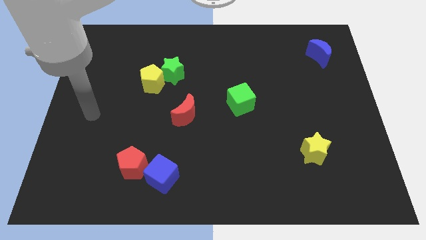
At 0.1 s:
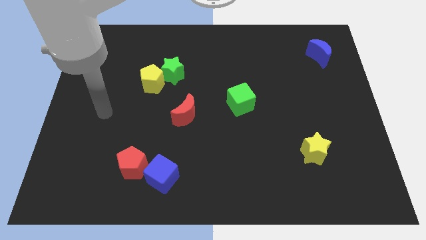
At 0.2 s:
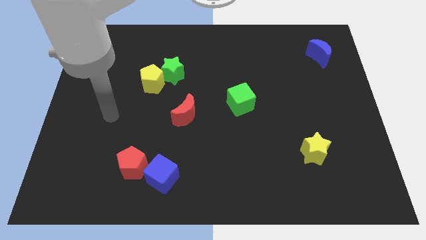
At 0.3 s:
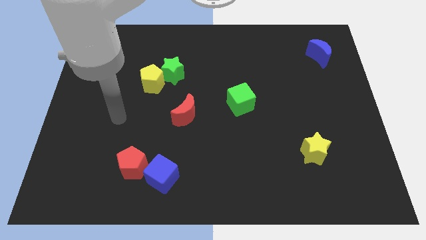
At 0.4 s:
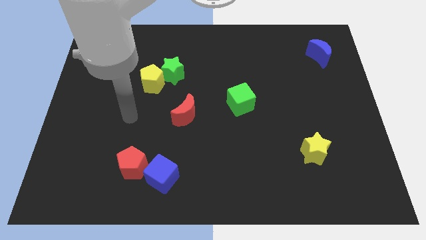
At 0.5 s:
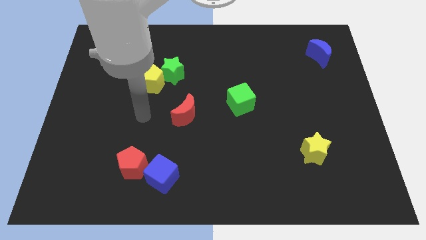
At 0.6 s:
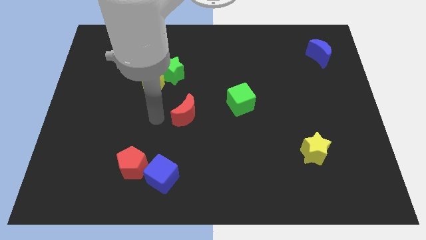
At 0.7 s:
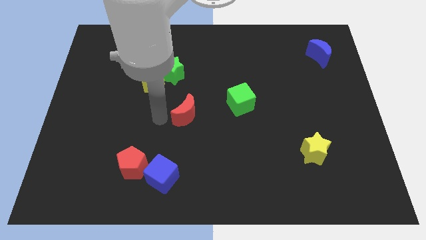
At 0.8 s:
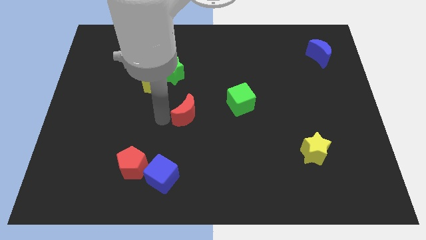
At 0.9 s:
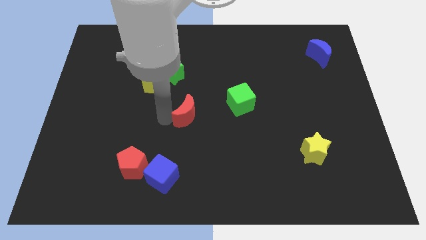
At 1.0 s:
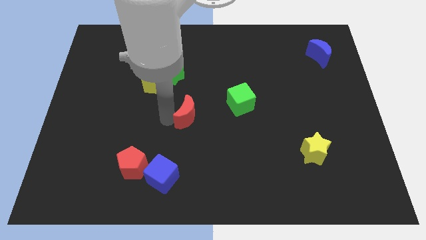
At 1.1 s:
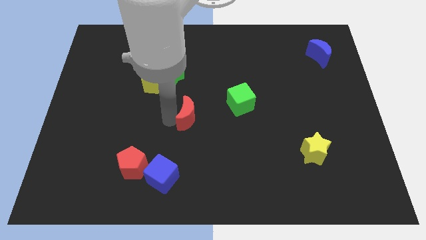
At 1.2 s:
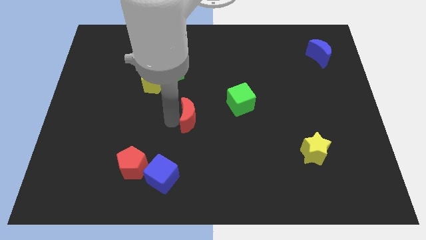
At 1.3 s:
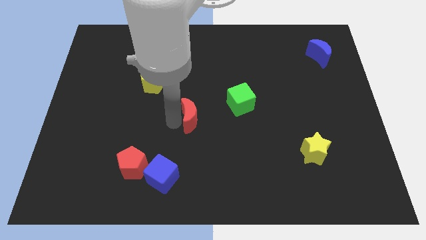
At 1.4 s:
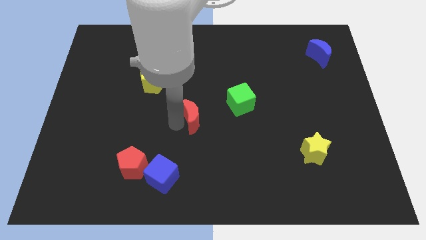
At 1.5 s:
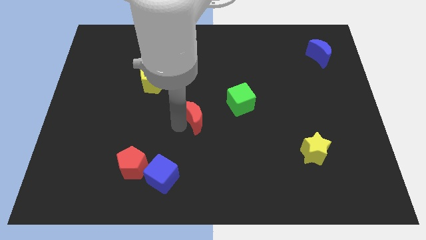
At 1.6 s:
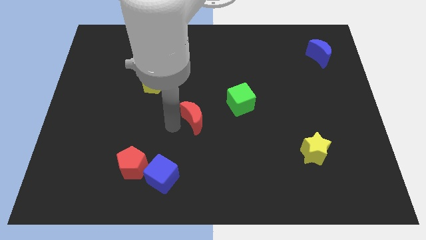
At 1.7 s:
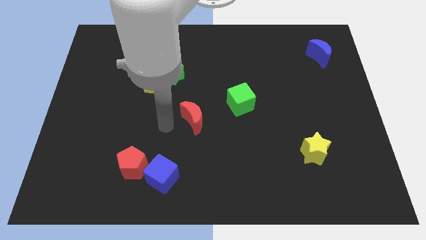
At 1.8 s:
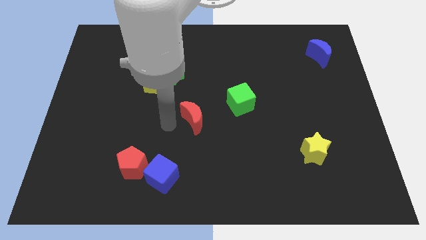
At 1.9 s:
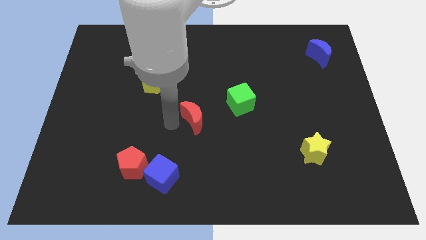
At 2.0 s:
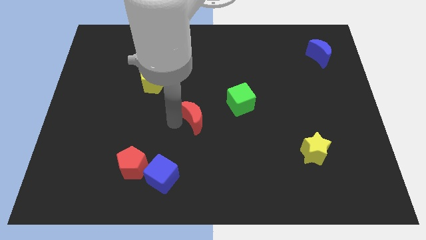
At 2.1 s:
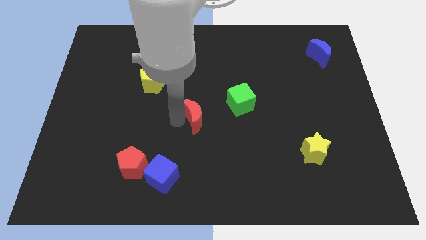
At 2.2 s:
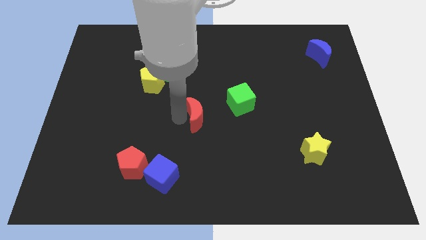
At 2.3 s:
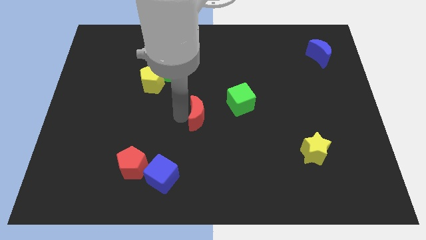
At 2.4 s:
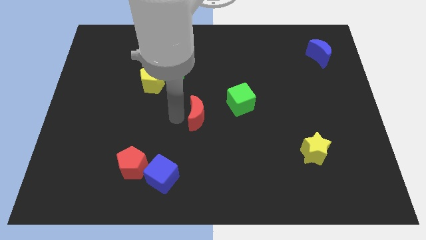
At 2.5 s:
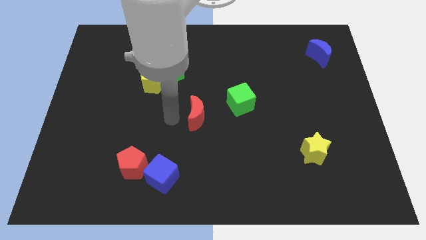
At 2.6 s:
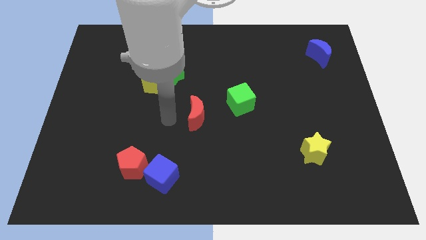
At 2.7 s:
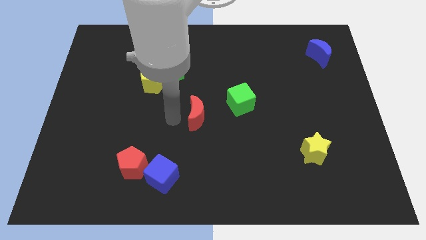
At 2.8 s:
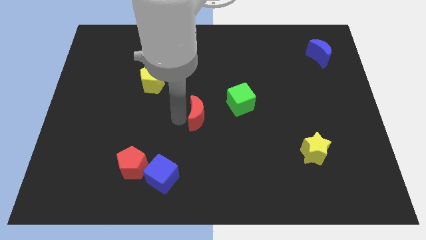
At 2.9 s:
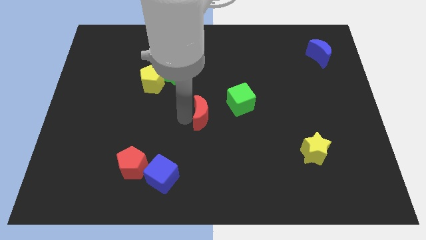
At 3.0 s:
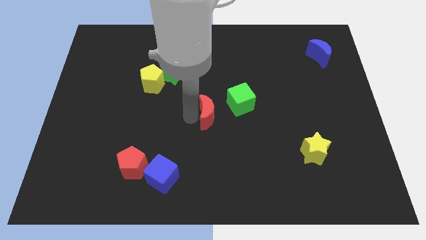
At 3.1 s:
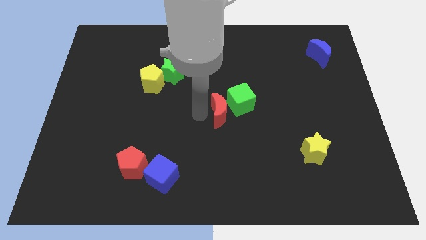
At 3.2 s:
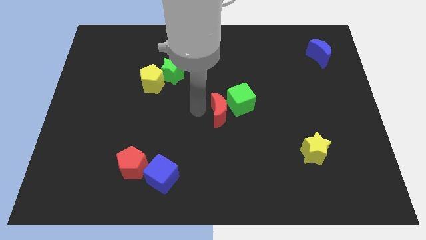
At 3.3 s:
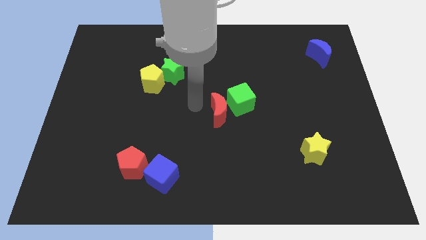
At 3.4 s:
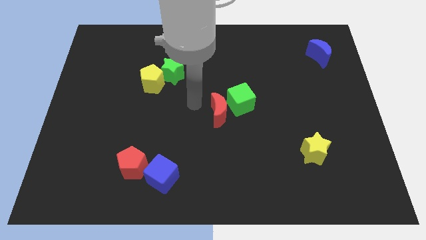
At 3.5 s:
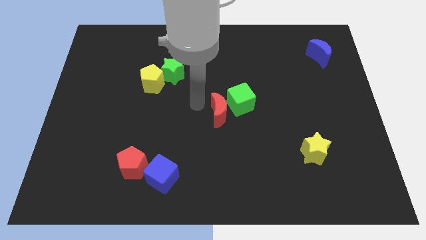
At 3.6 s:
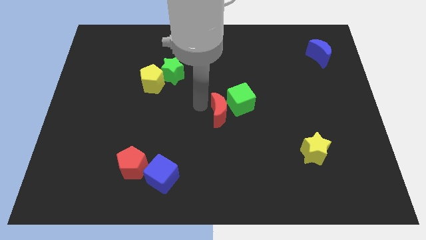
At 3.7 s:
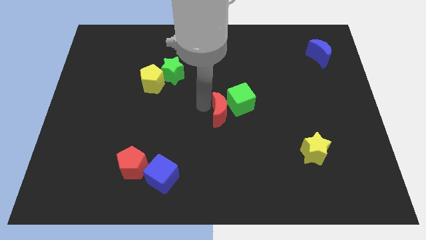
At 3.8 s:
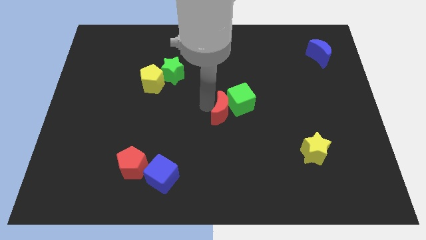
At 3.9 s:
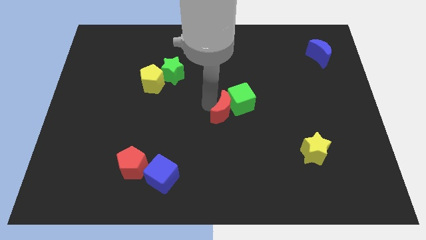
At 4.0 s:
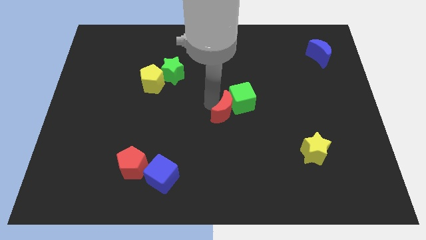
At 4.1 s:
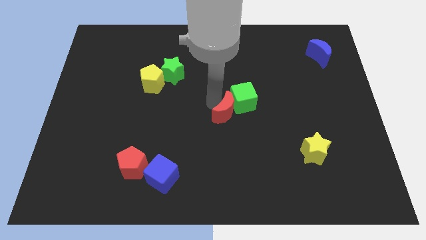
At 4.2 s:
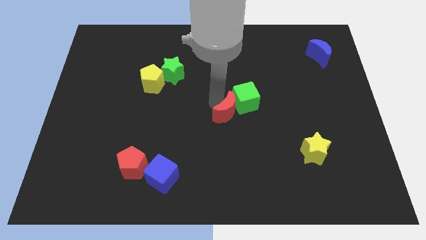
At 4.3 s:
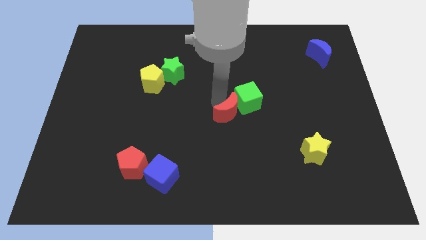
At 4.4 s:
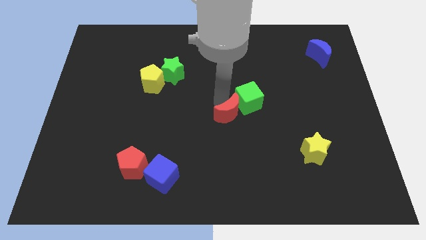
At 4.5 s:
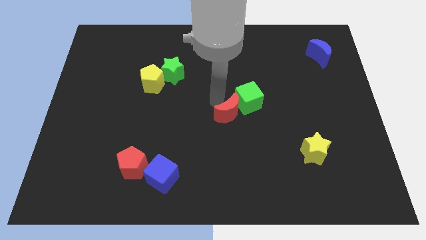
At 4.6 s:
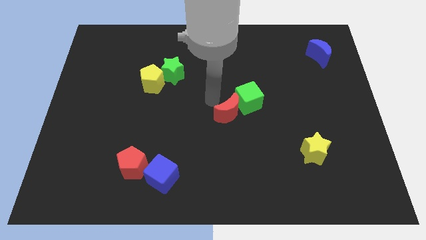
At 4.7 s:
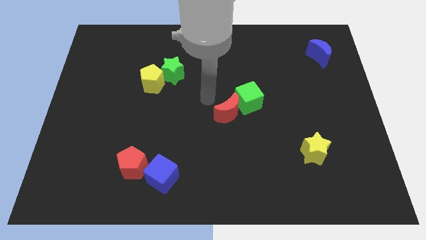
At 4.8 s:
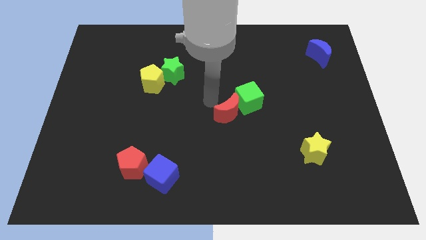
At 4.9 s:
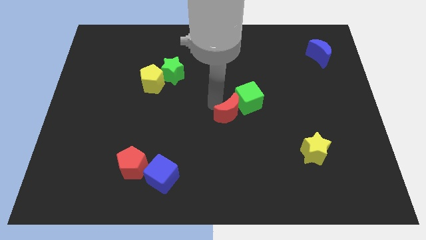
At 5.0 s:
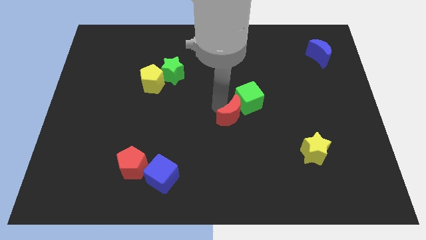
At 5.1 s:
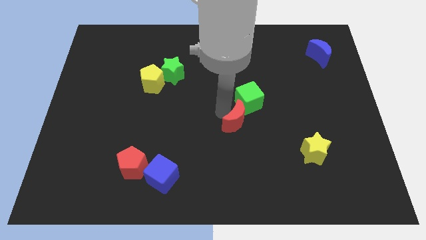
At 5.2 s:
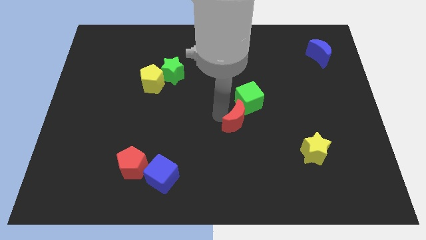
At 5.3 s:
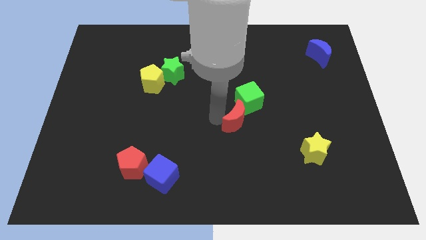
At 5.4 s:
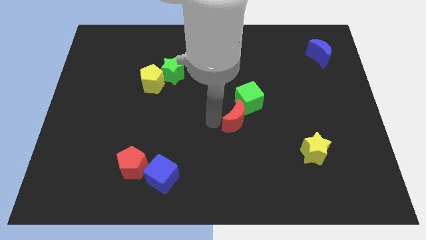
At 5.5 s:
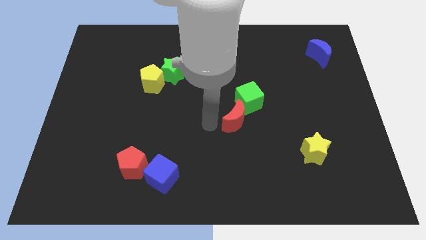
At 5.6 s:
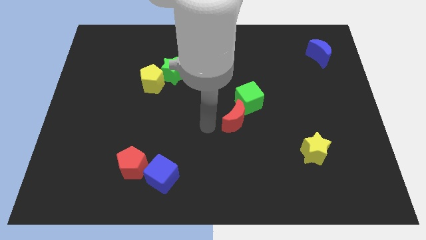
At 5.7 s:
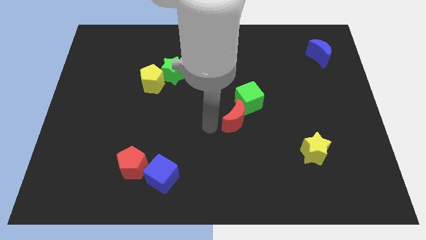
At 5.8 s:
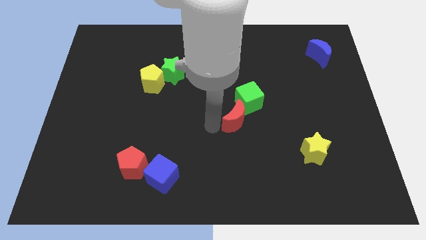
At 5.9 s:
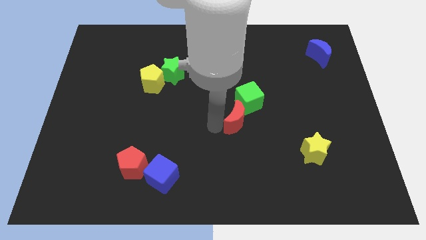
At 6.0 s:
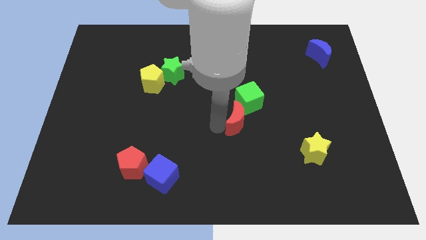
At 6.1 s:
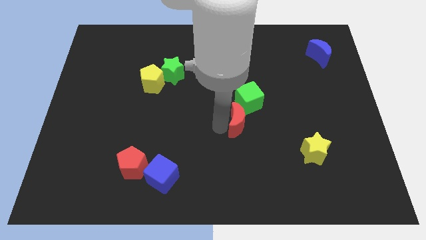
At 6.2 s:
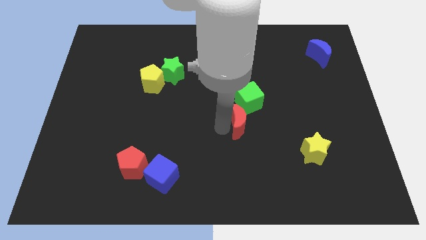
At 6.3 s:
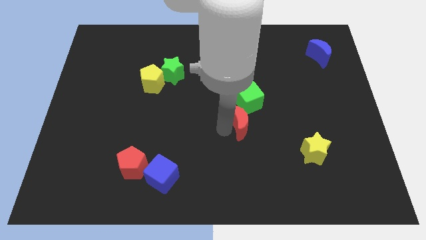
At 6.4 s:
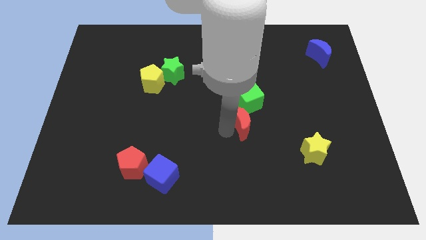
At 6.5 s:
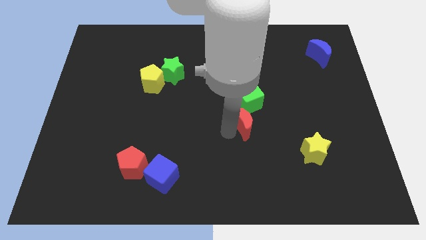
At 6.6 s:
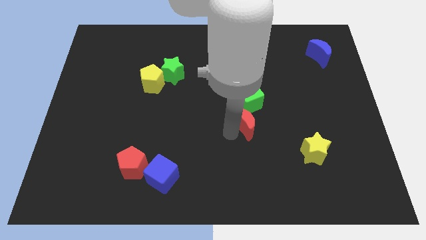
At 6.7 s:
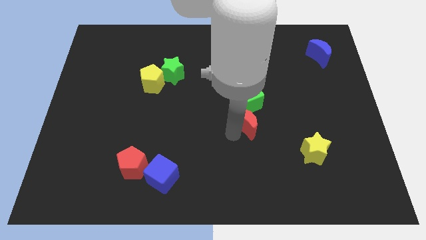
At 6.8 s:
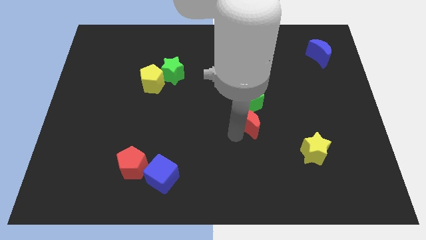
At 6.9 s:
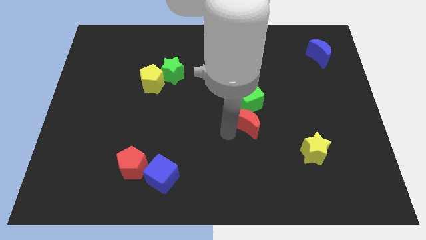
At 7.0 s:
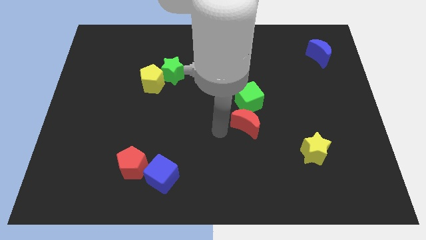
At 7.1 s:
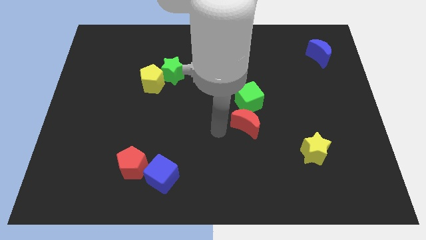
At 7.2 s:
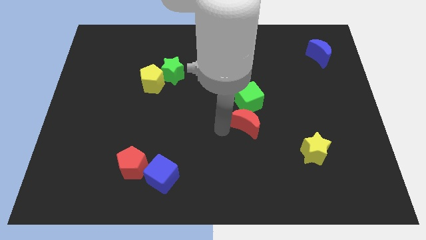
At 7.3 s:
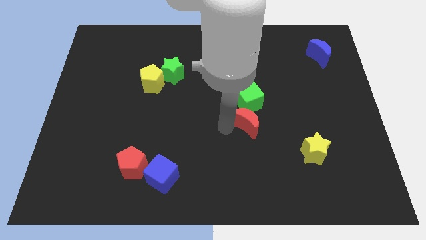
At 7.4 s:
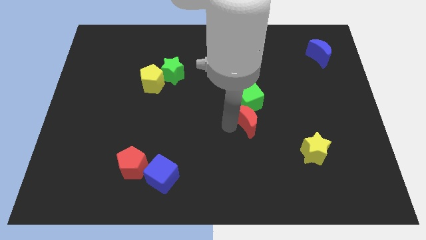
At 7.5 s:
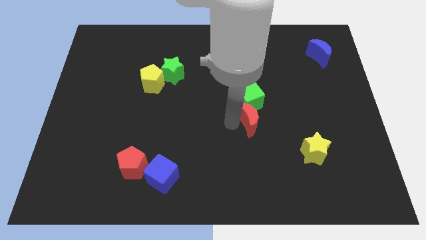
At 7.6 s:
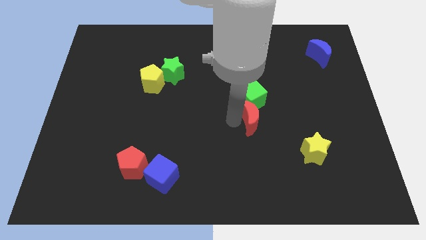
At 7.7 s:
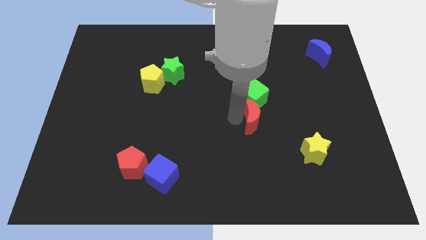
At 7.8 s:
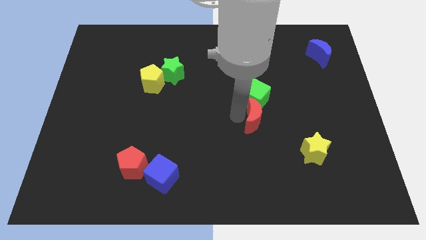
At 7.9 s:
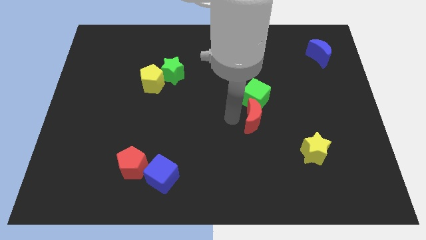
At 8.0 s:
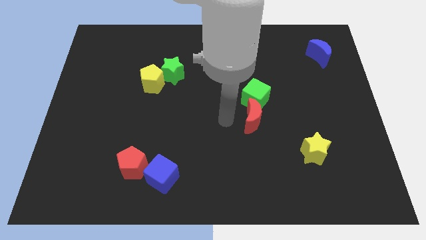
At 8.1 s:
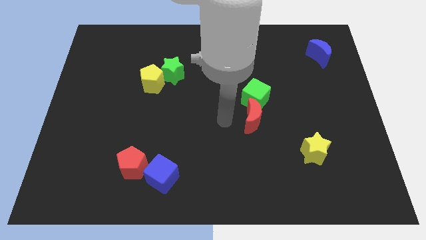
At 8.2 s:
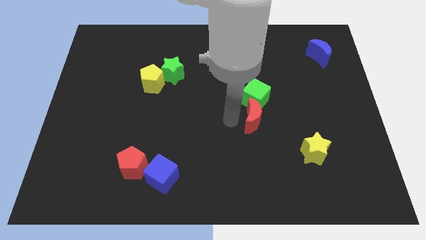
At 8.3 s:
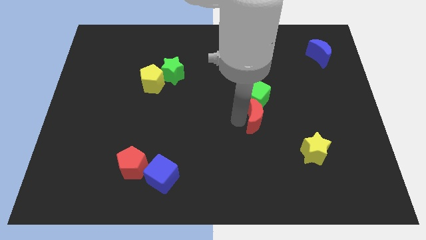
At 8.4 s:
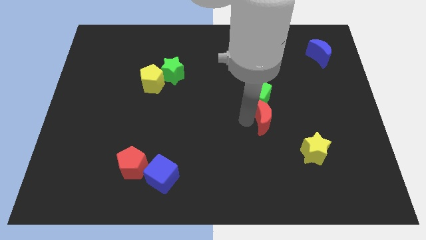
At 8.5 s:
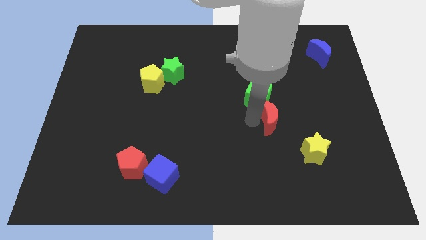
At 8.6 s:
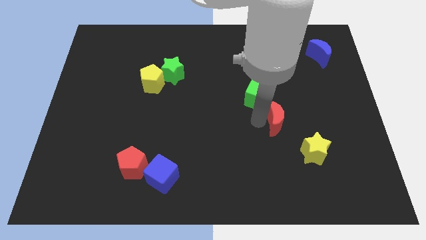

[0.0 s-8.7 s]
push the red moon right
